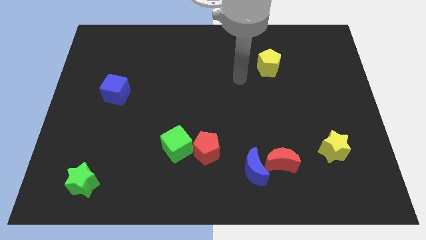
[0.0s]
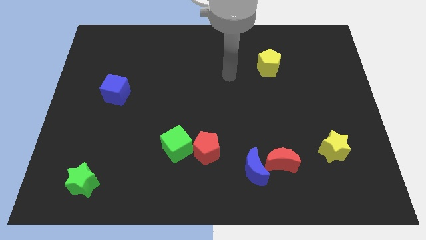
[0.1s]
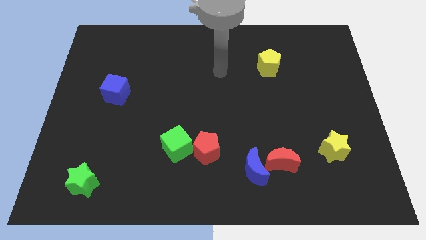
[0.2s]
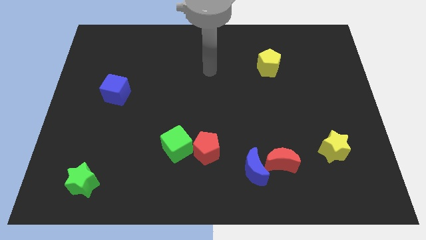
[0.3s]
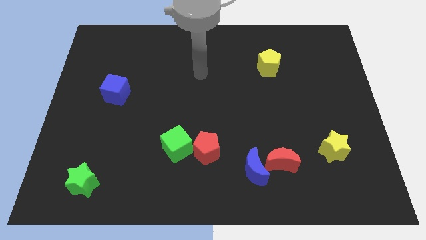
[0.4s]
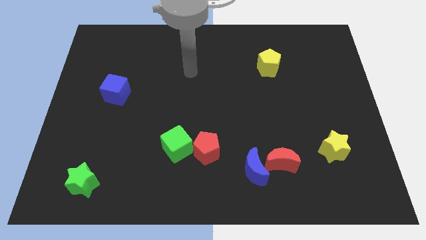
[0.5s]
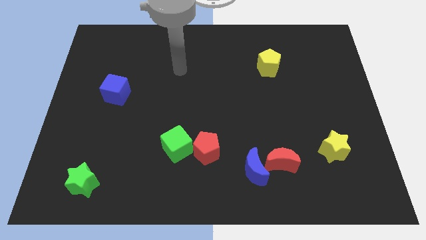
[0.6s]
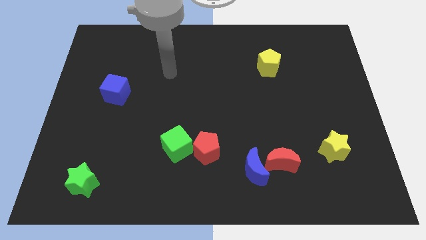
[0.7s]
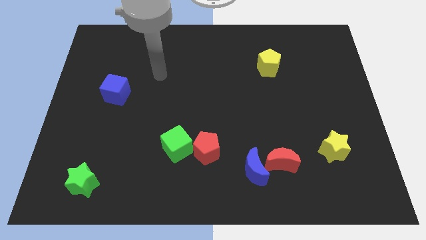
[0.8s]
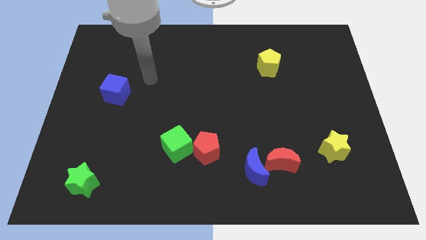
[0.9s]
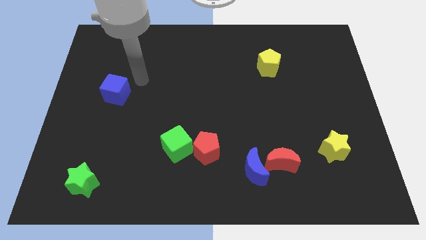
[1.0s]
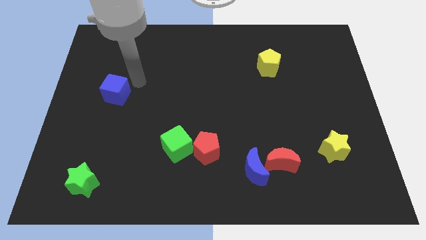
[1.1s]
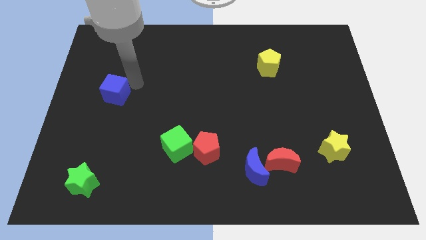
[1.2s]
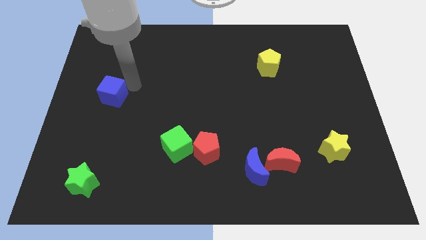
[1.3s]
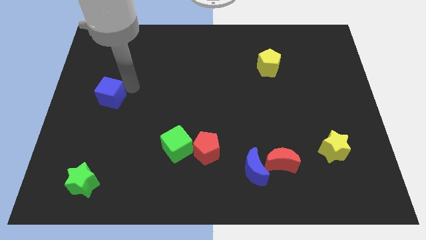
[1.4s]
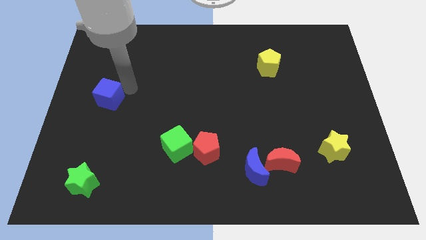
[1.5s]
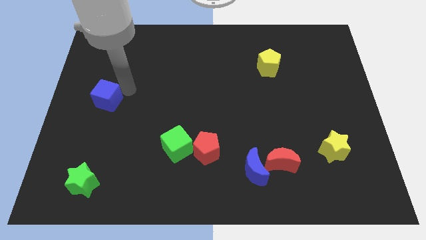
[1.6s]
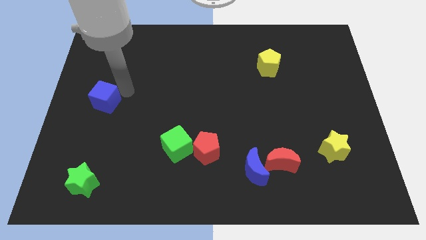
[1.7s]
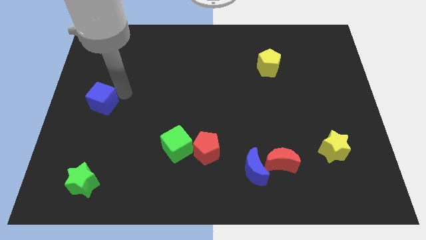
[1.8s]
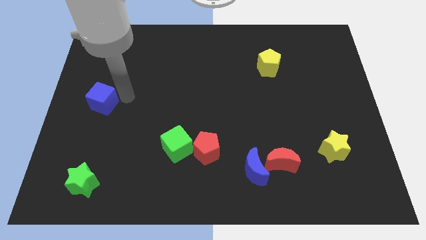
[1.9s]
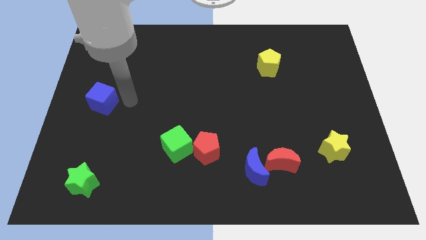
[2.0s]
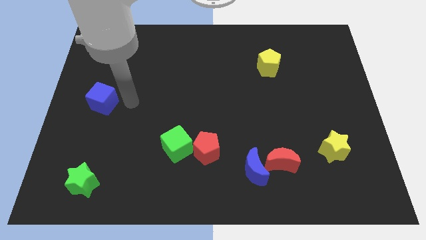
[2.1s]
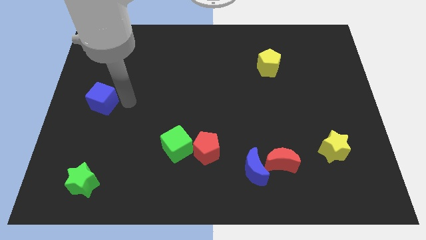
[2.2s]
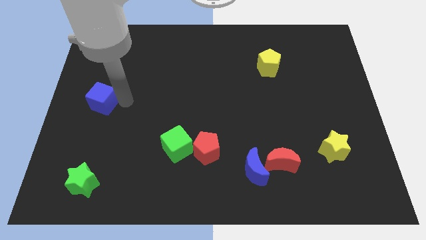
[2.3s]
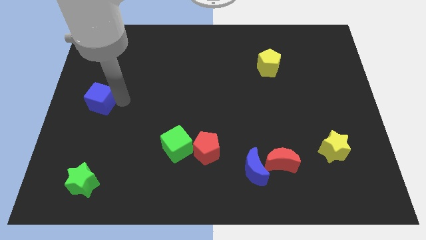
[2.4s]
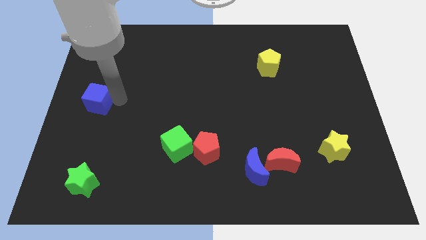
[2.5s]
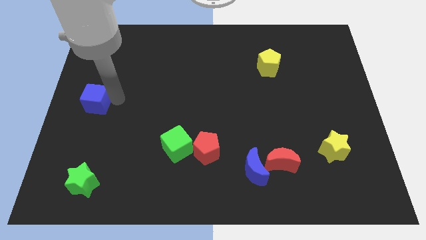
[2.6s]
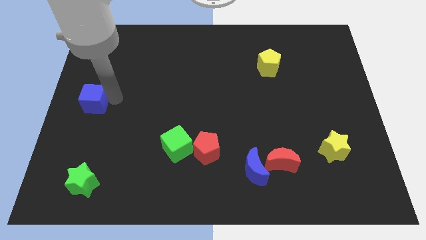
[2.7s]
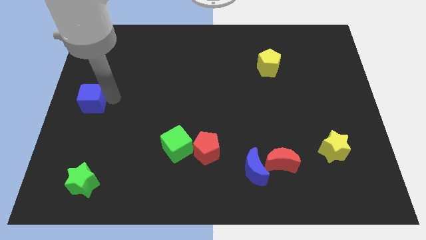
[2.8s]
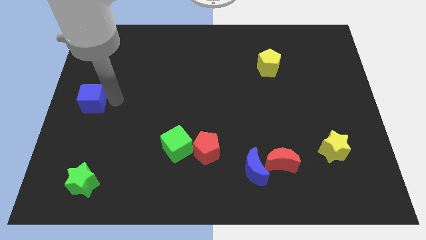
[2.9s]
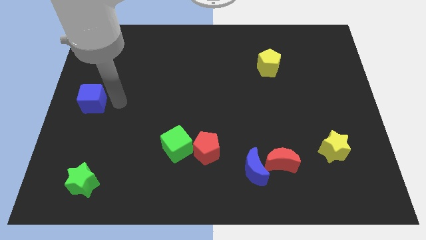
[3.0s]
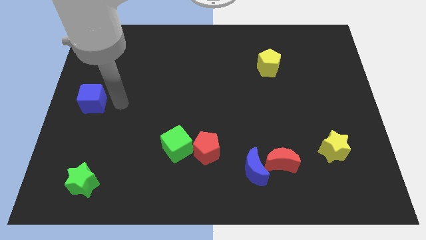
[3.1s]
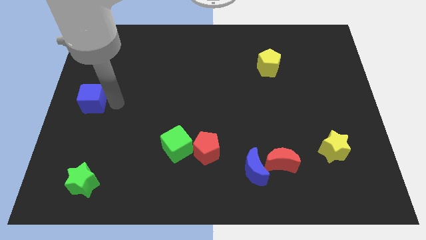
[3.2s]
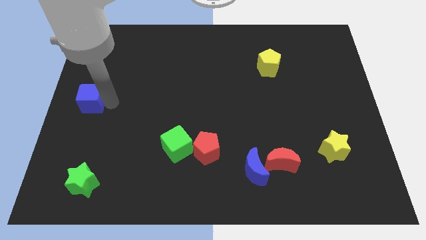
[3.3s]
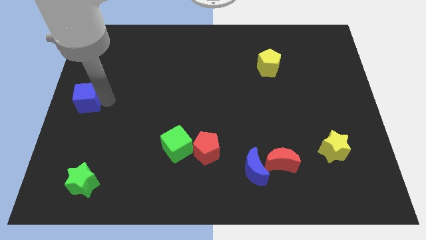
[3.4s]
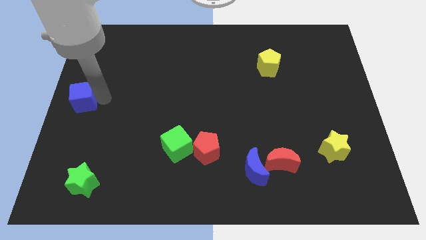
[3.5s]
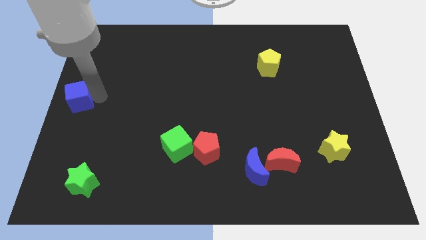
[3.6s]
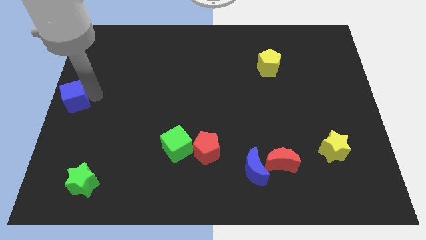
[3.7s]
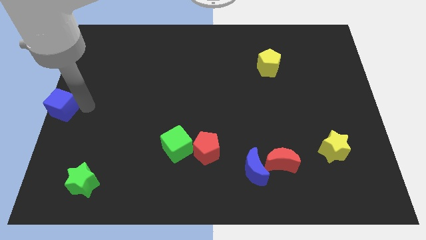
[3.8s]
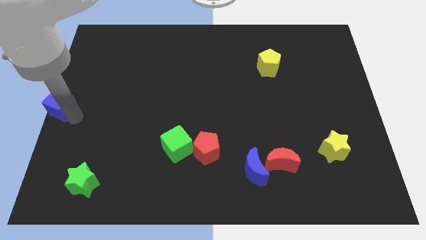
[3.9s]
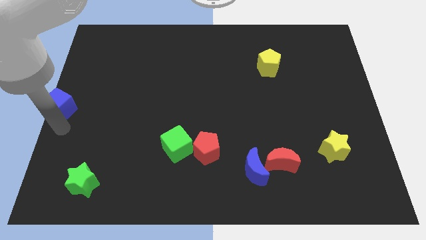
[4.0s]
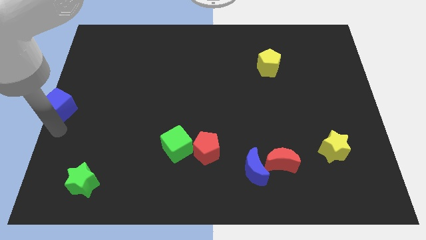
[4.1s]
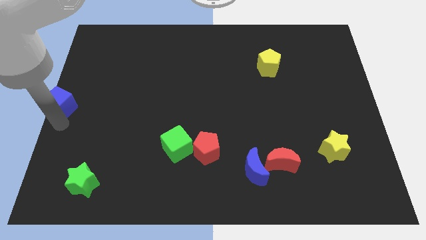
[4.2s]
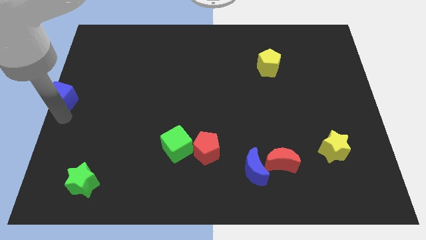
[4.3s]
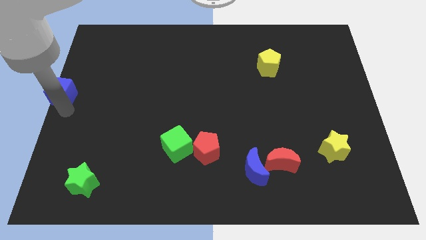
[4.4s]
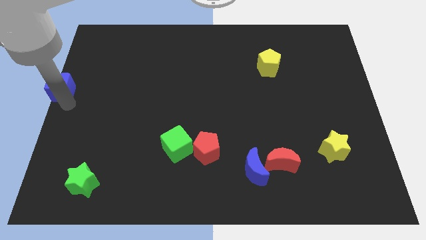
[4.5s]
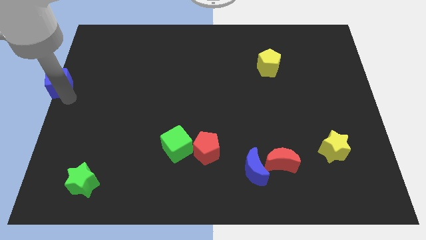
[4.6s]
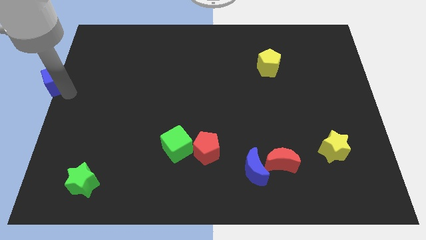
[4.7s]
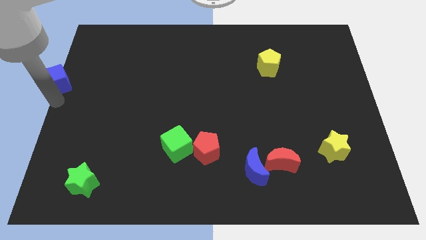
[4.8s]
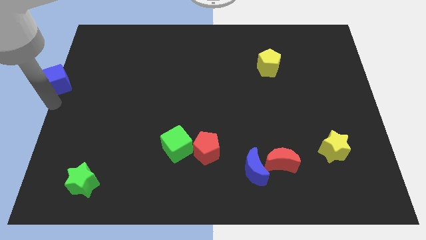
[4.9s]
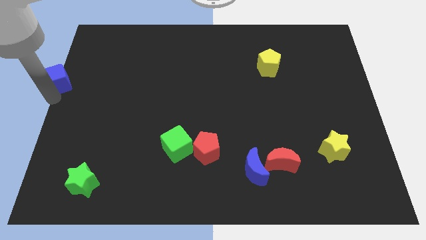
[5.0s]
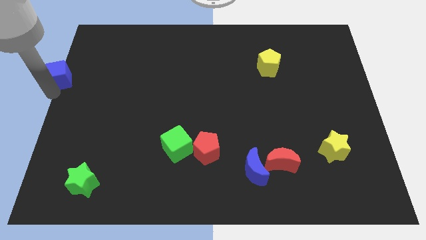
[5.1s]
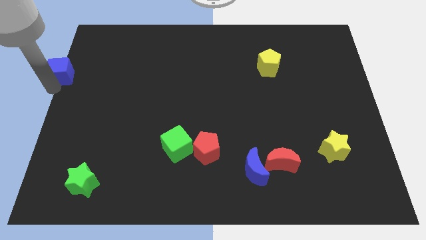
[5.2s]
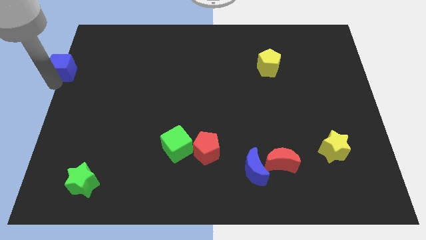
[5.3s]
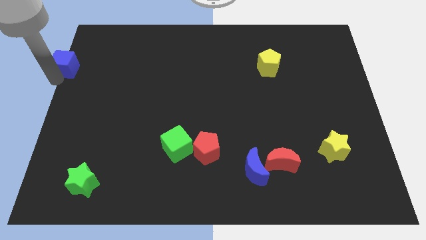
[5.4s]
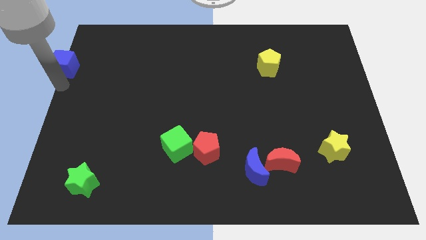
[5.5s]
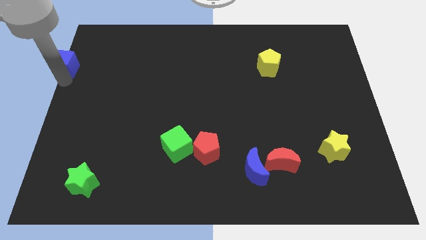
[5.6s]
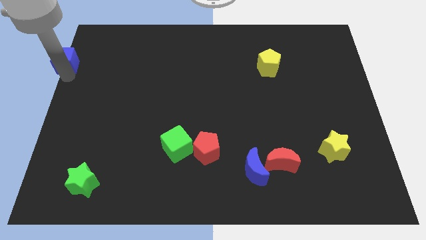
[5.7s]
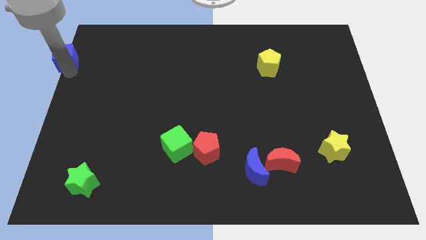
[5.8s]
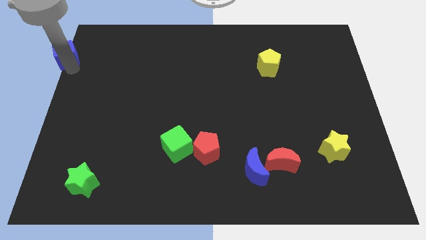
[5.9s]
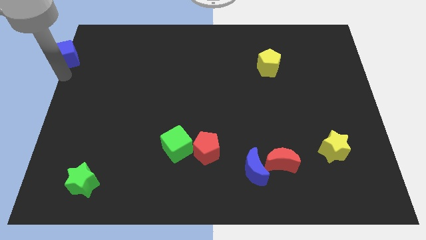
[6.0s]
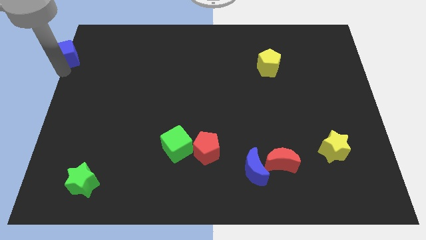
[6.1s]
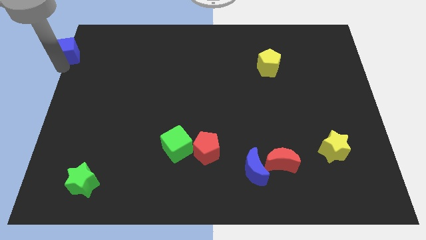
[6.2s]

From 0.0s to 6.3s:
move the blue cube to the top left corner
